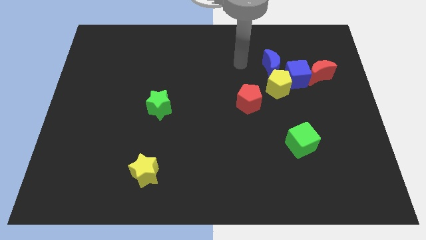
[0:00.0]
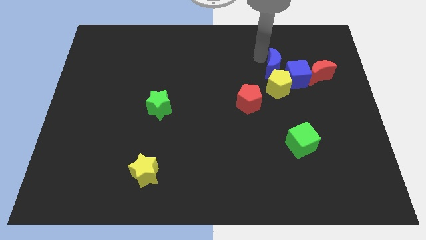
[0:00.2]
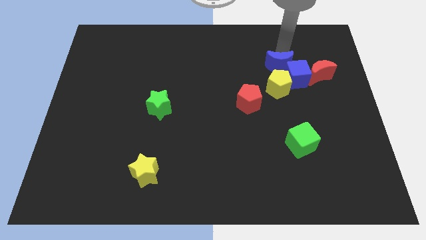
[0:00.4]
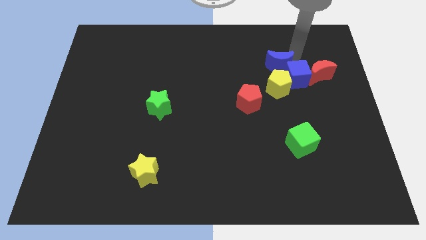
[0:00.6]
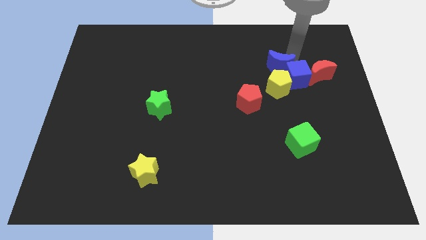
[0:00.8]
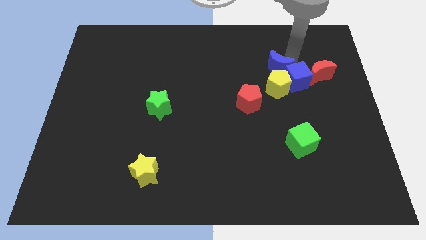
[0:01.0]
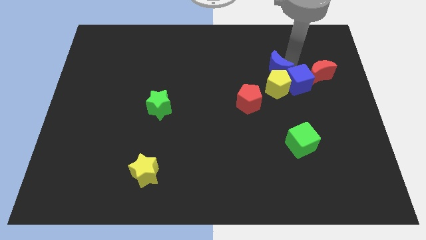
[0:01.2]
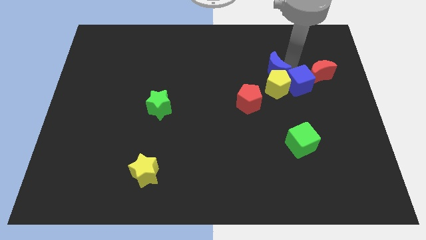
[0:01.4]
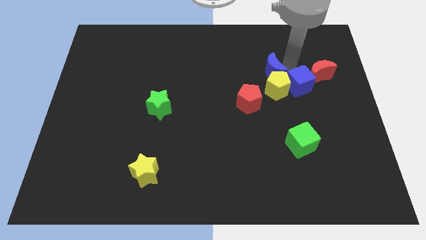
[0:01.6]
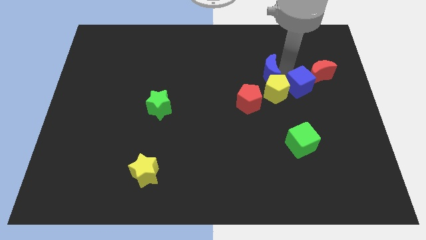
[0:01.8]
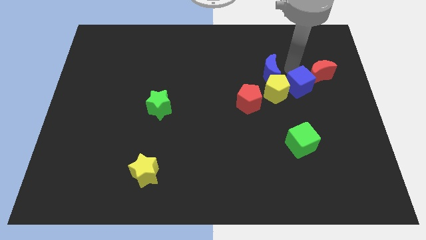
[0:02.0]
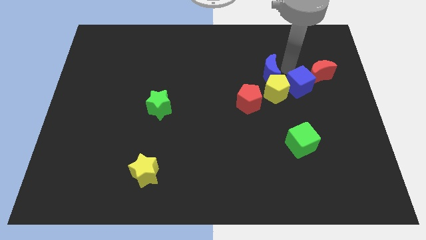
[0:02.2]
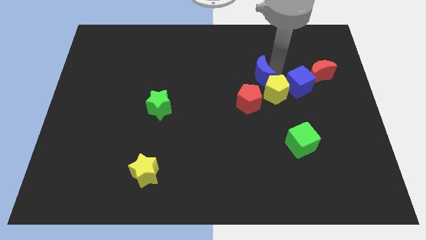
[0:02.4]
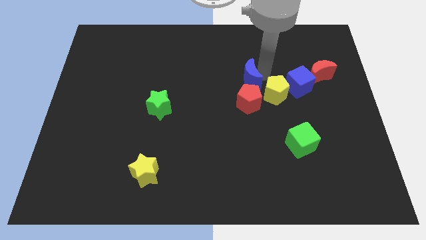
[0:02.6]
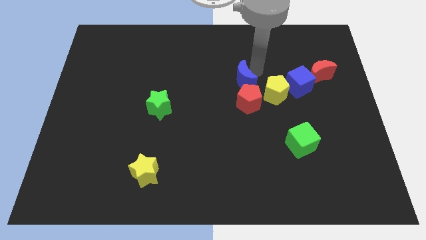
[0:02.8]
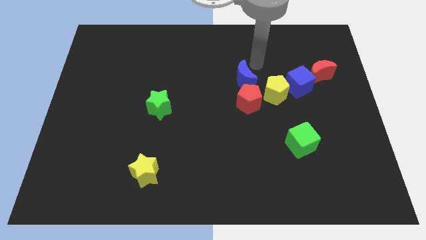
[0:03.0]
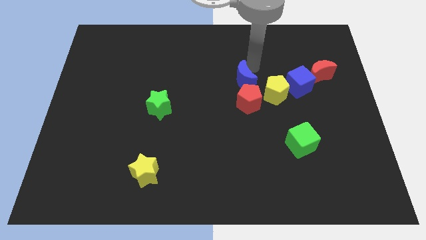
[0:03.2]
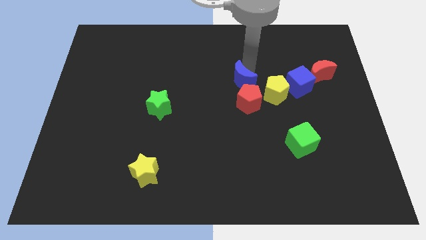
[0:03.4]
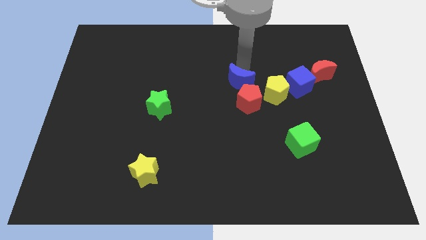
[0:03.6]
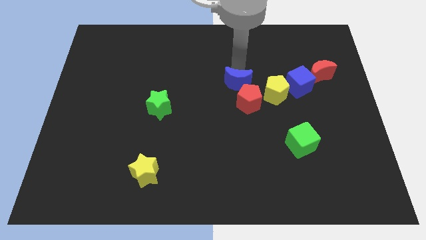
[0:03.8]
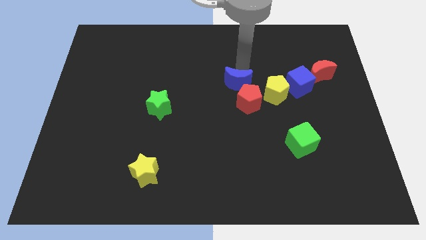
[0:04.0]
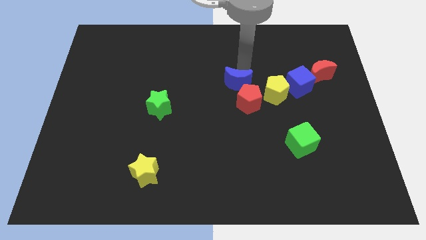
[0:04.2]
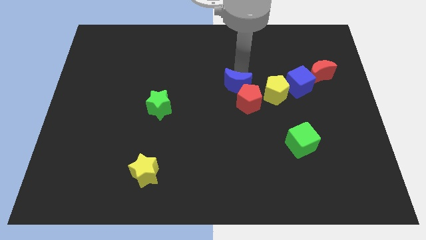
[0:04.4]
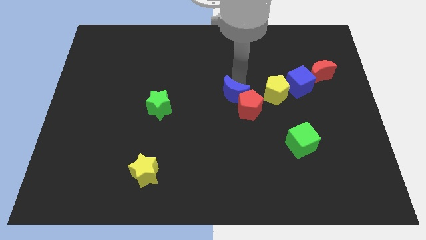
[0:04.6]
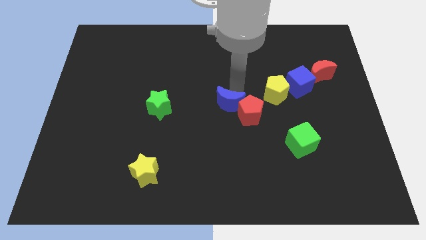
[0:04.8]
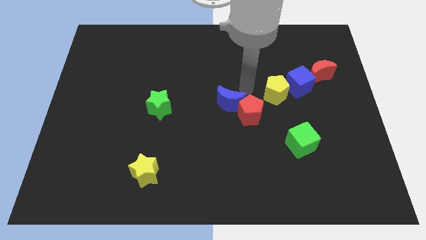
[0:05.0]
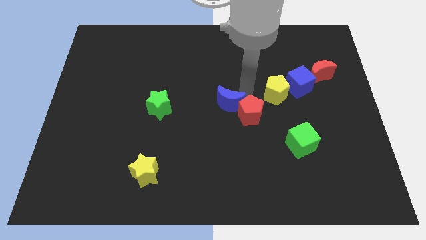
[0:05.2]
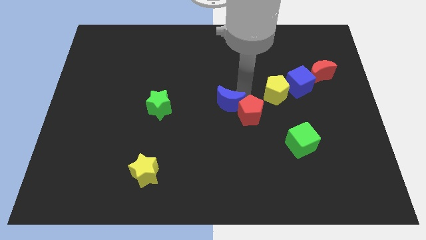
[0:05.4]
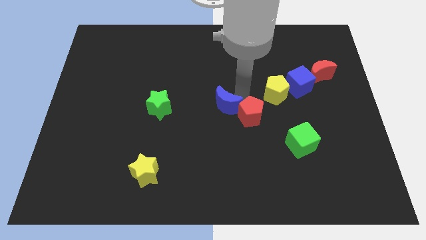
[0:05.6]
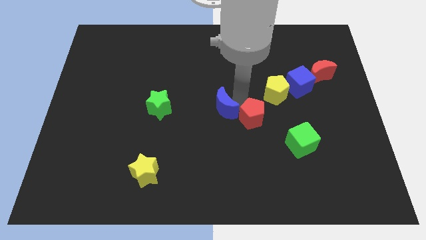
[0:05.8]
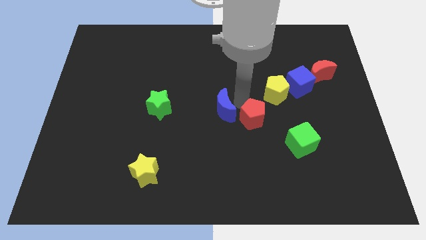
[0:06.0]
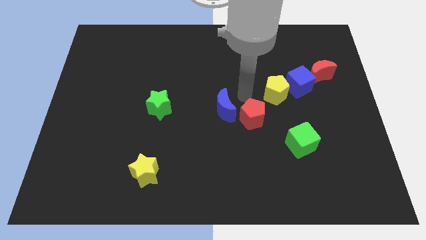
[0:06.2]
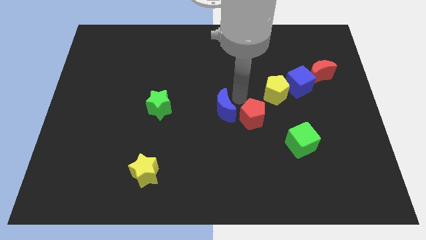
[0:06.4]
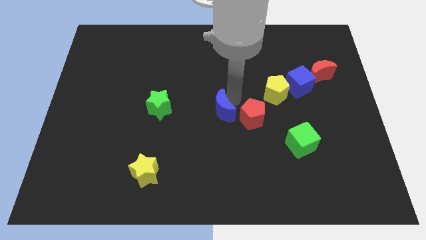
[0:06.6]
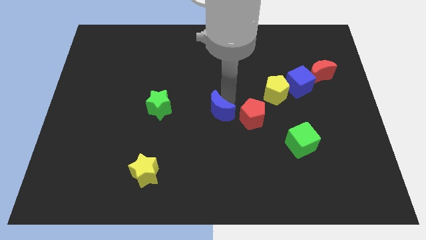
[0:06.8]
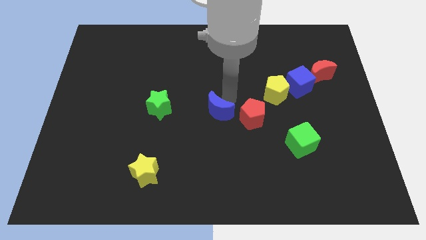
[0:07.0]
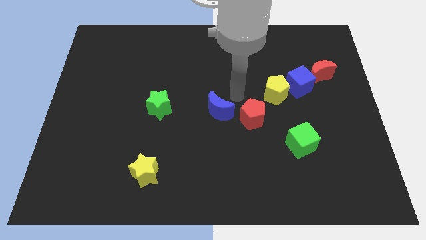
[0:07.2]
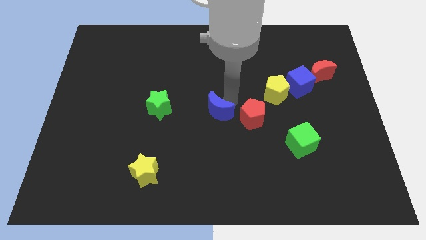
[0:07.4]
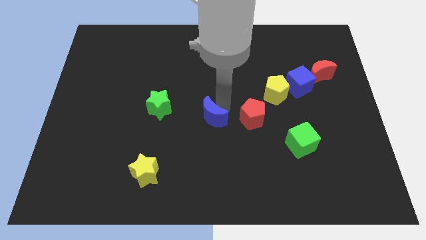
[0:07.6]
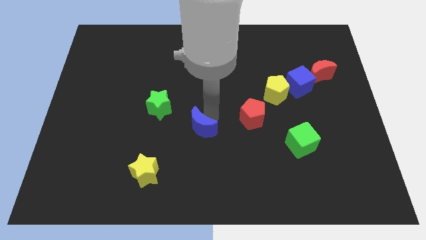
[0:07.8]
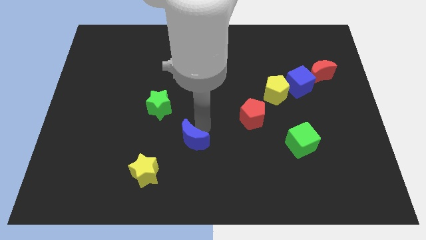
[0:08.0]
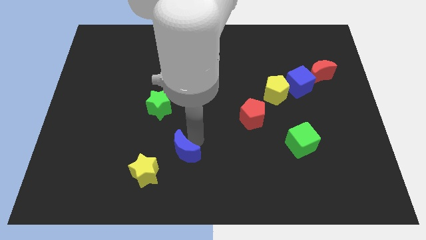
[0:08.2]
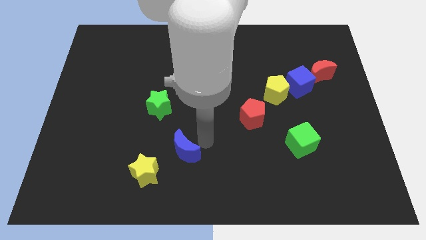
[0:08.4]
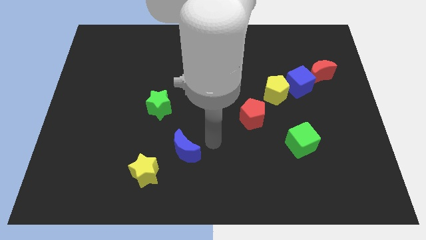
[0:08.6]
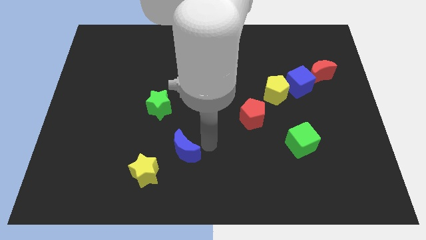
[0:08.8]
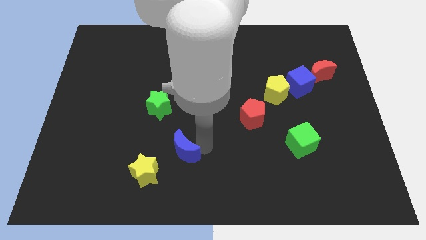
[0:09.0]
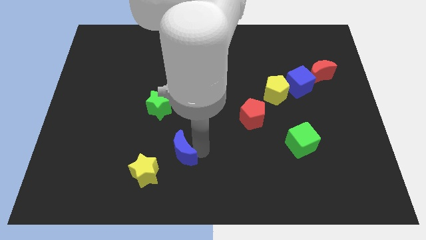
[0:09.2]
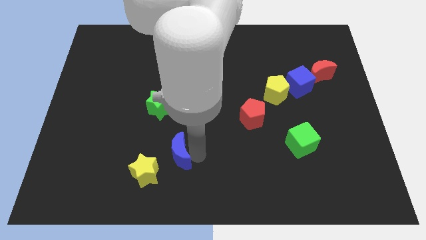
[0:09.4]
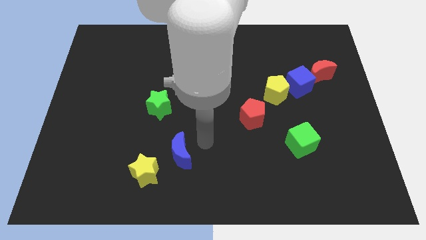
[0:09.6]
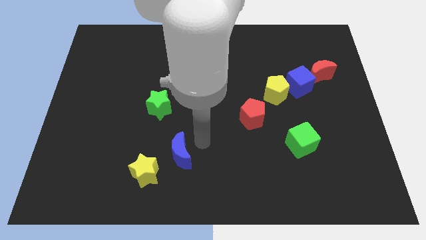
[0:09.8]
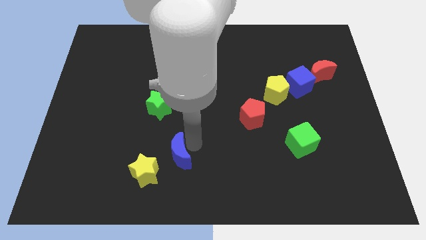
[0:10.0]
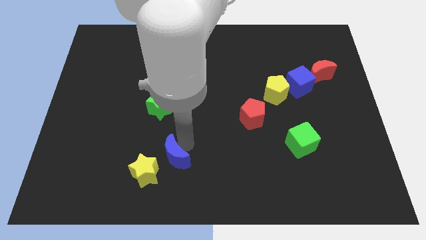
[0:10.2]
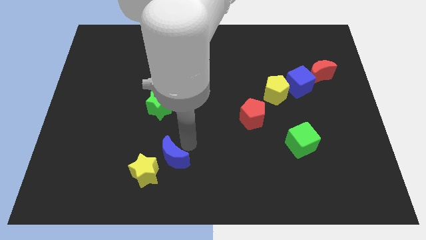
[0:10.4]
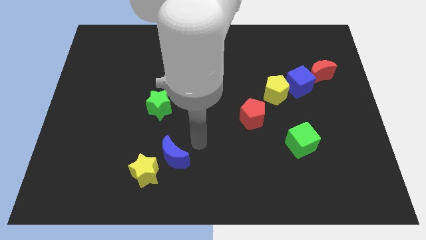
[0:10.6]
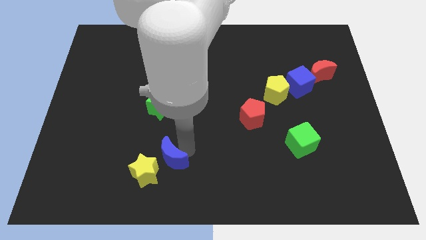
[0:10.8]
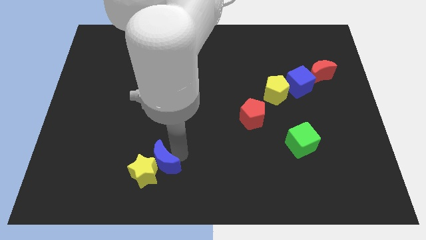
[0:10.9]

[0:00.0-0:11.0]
move the blue moon to the yellow star

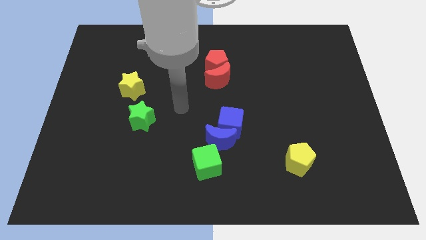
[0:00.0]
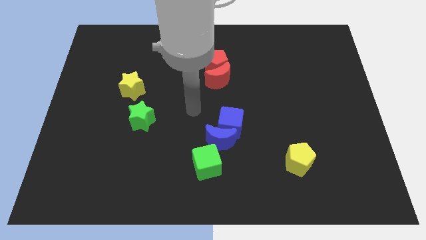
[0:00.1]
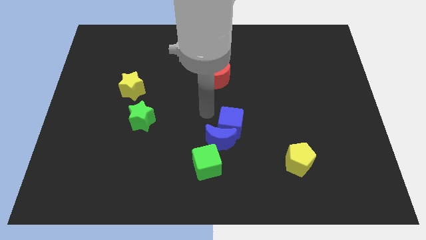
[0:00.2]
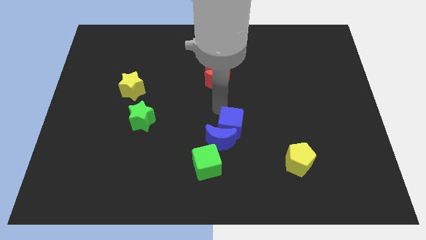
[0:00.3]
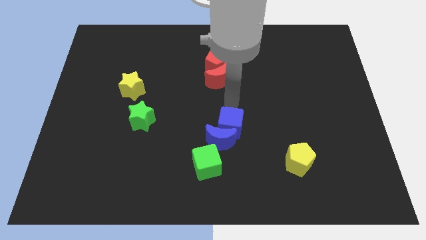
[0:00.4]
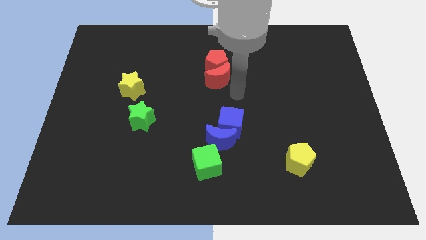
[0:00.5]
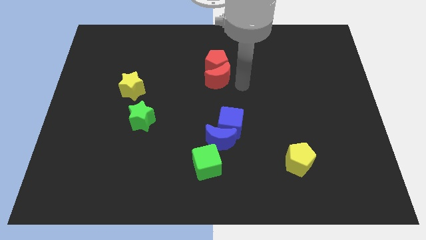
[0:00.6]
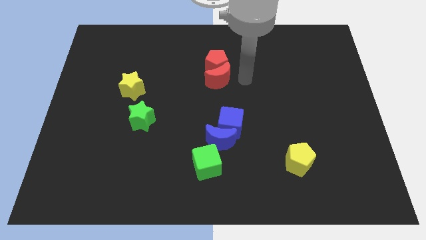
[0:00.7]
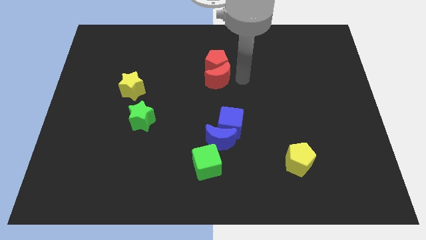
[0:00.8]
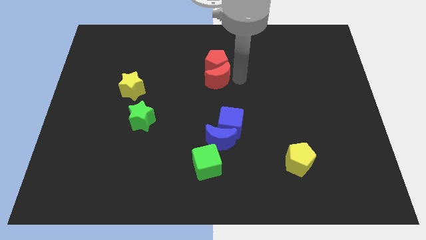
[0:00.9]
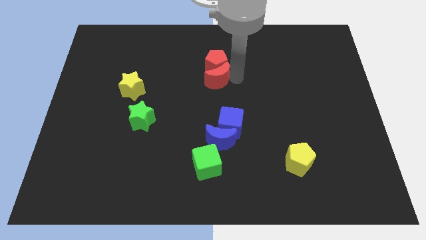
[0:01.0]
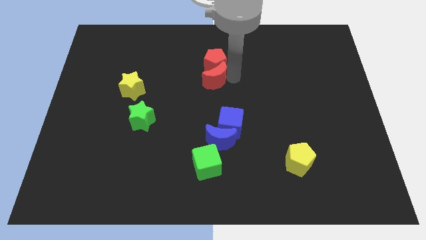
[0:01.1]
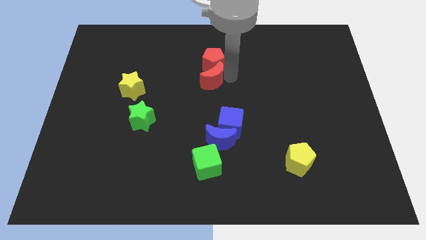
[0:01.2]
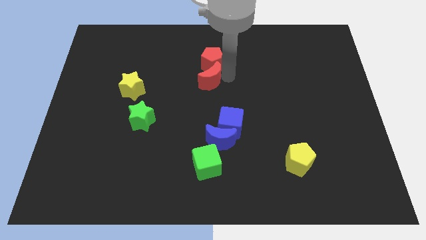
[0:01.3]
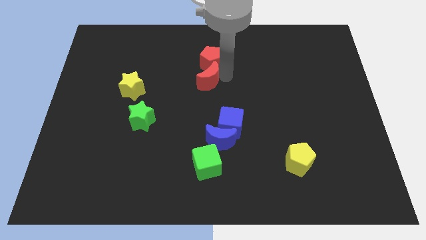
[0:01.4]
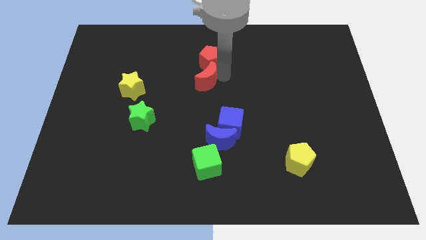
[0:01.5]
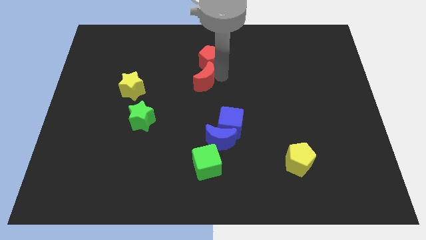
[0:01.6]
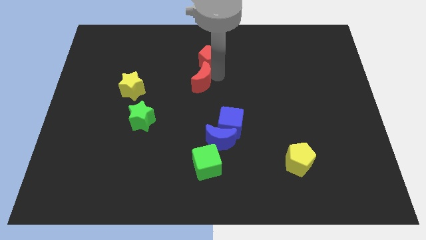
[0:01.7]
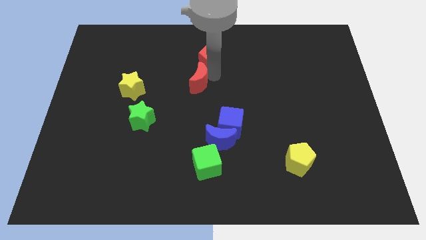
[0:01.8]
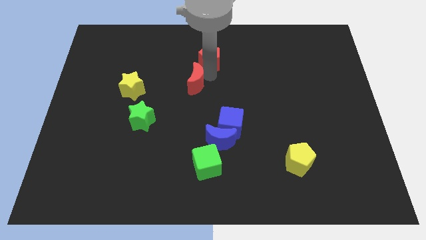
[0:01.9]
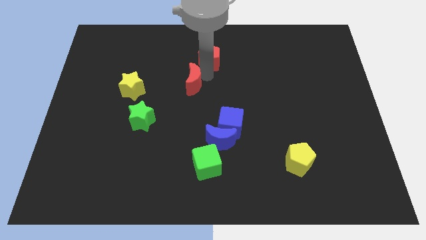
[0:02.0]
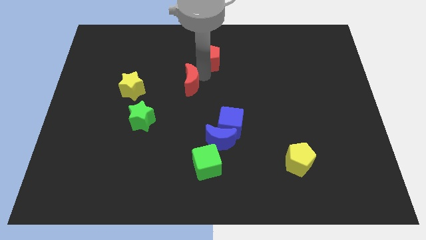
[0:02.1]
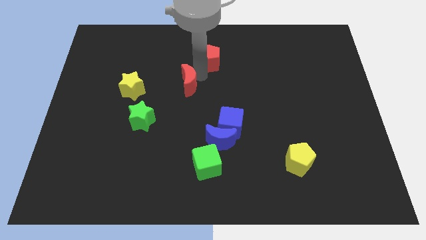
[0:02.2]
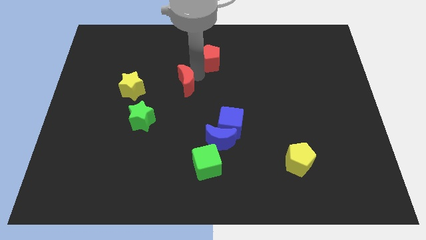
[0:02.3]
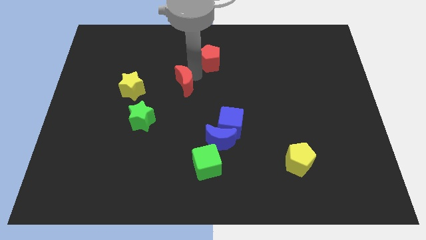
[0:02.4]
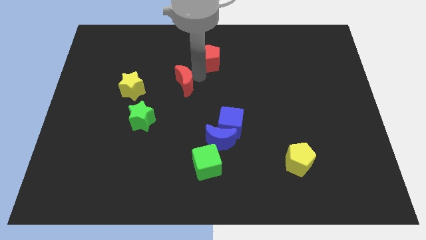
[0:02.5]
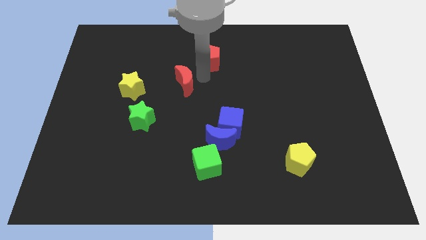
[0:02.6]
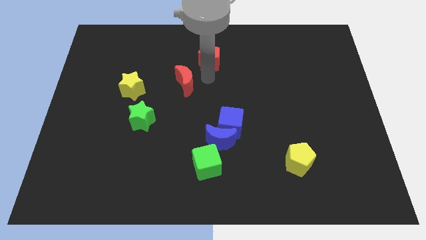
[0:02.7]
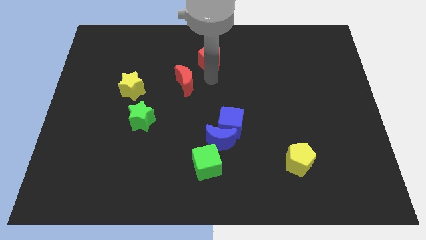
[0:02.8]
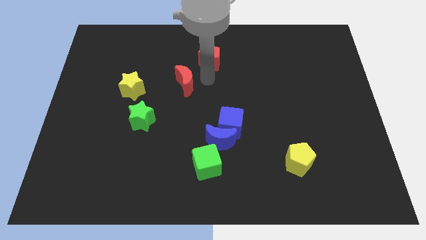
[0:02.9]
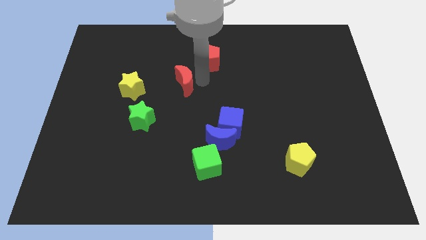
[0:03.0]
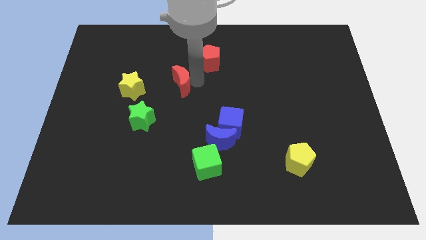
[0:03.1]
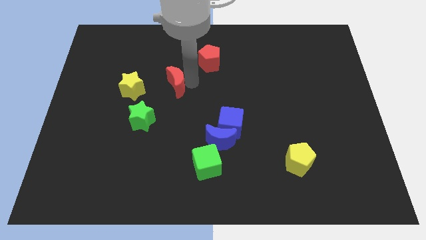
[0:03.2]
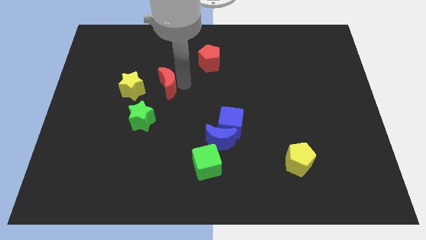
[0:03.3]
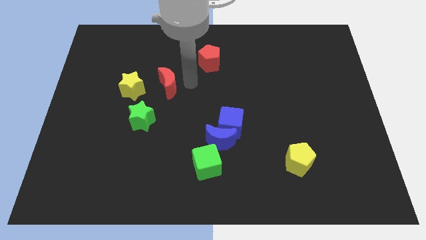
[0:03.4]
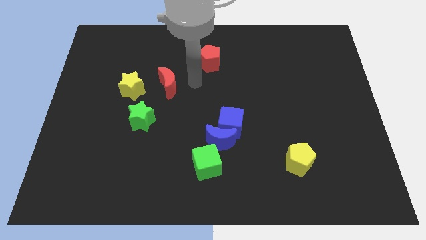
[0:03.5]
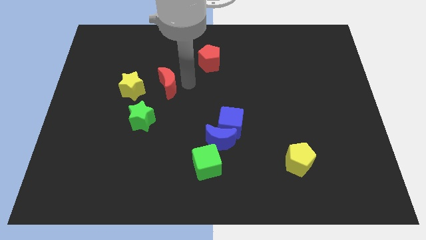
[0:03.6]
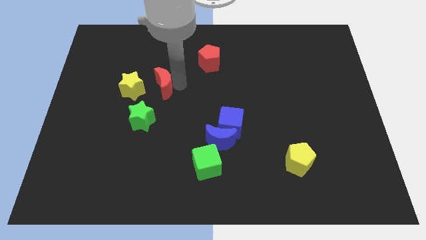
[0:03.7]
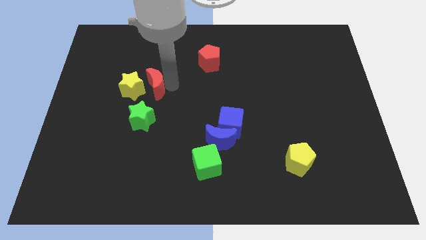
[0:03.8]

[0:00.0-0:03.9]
push the red moon close to the yellow star
